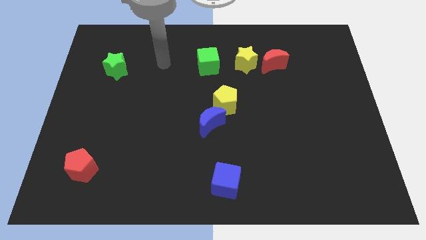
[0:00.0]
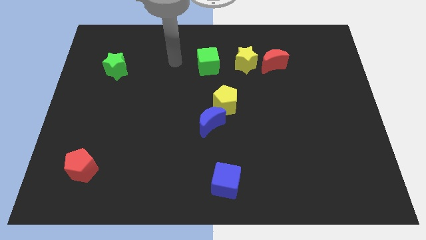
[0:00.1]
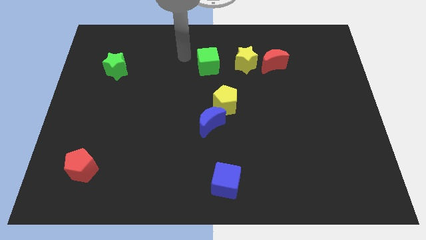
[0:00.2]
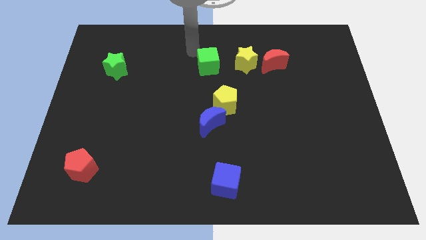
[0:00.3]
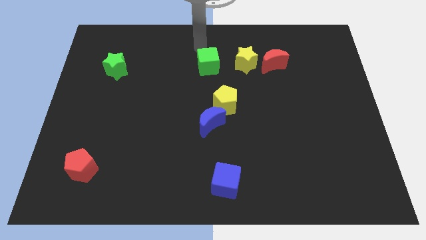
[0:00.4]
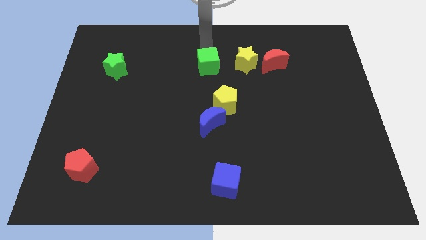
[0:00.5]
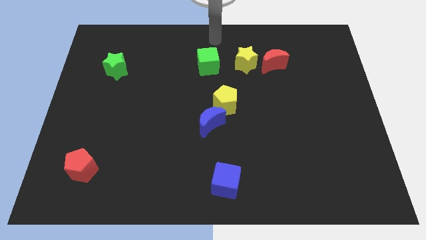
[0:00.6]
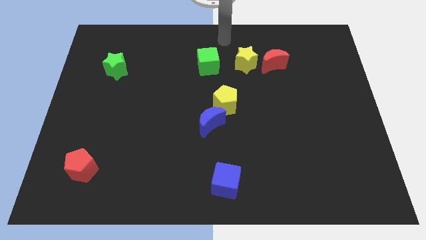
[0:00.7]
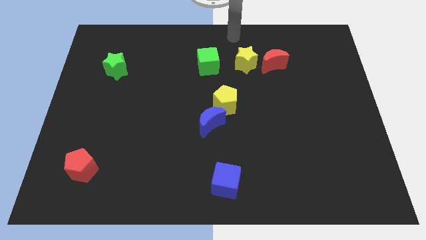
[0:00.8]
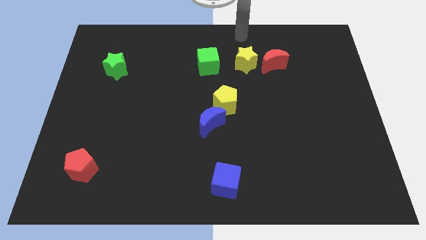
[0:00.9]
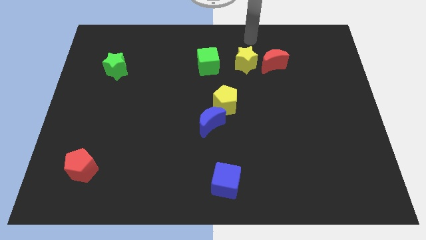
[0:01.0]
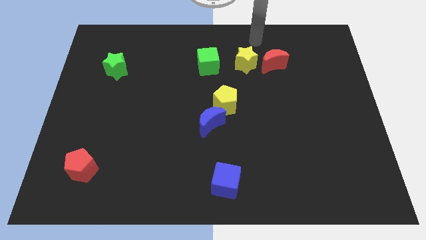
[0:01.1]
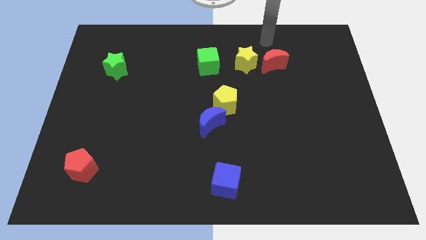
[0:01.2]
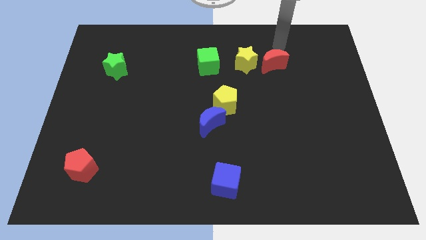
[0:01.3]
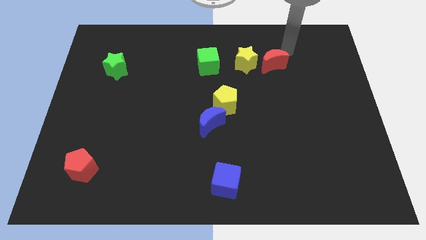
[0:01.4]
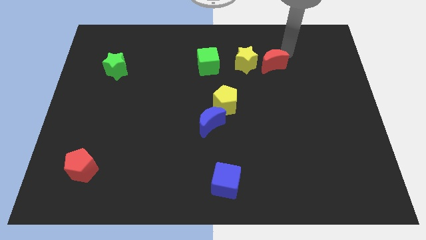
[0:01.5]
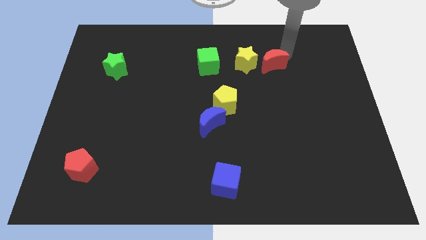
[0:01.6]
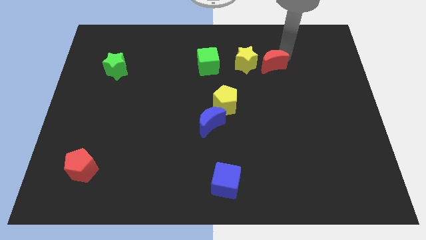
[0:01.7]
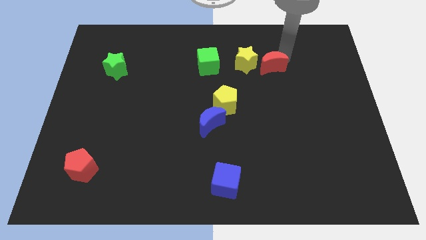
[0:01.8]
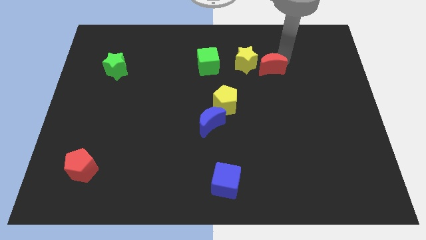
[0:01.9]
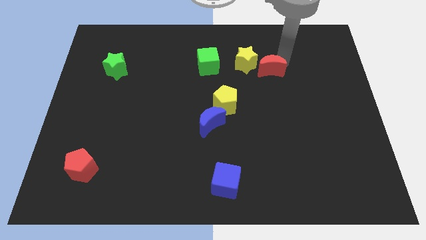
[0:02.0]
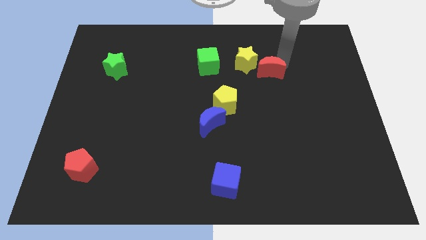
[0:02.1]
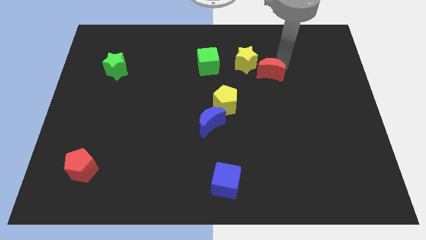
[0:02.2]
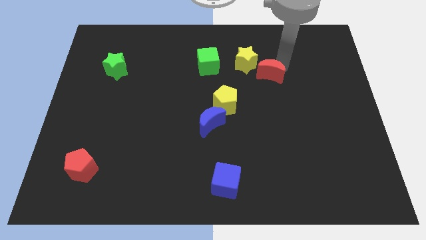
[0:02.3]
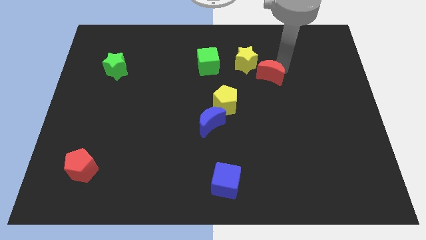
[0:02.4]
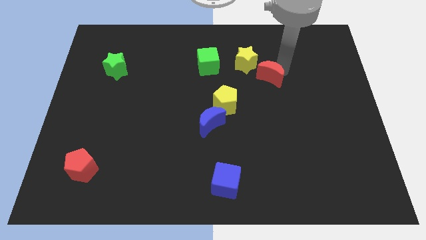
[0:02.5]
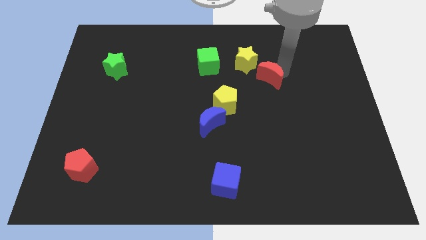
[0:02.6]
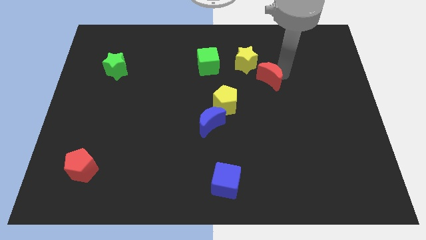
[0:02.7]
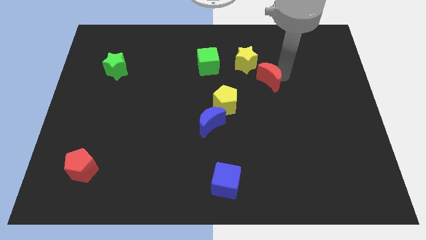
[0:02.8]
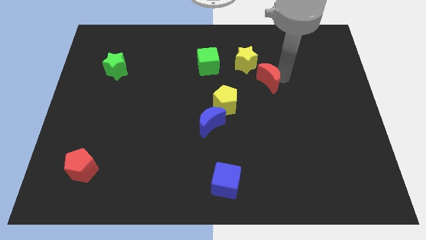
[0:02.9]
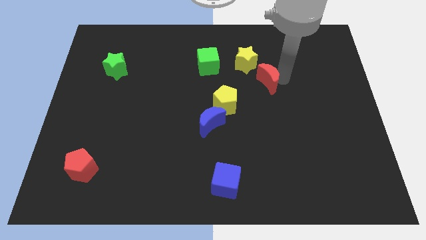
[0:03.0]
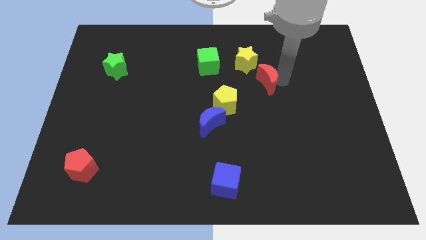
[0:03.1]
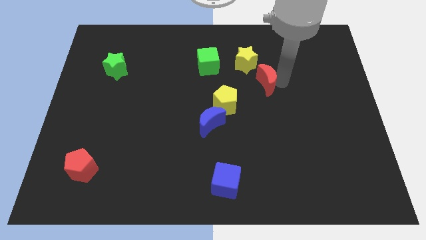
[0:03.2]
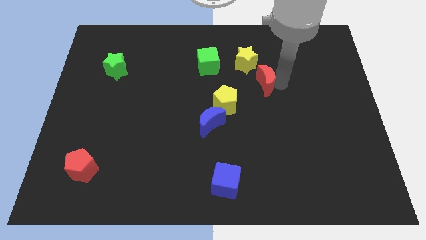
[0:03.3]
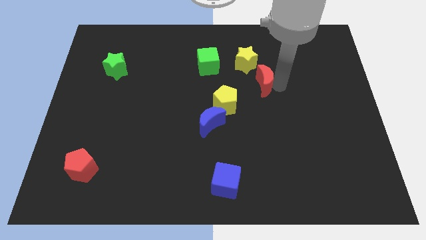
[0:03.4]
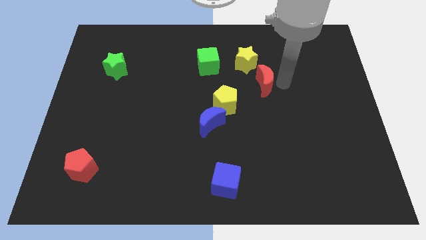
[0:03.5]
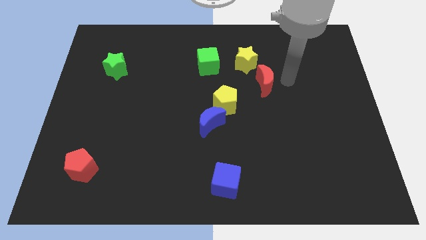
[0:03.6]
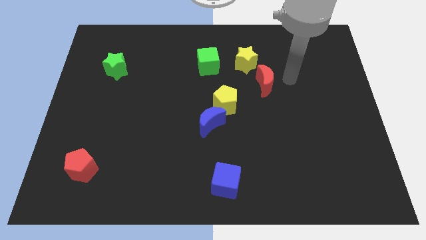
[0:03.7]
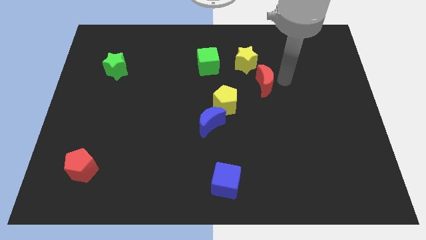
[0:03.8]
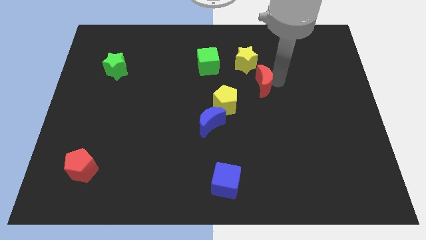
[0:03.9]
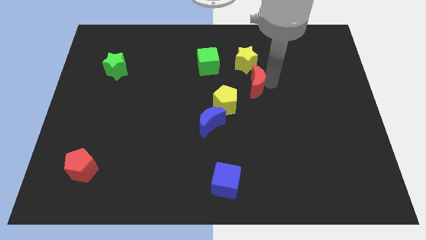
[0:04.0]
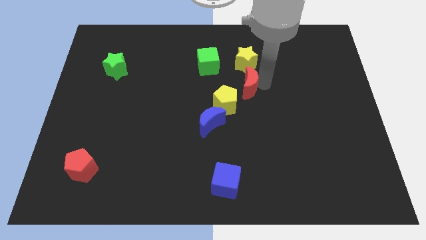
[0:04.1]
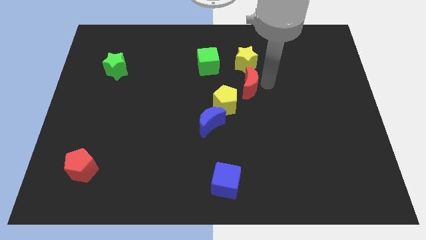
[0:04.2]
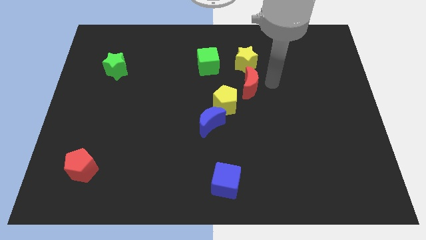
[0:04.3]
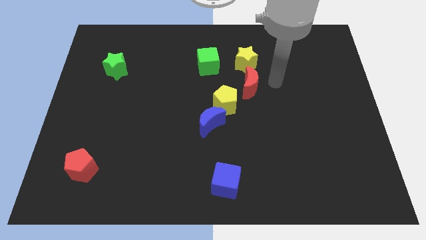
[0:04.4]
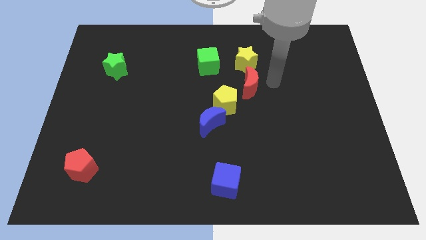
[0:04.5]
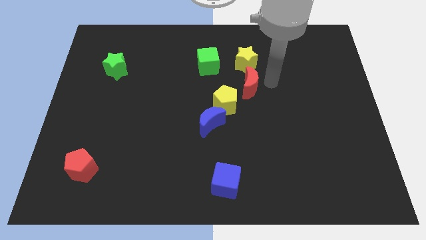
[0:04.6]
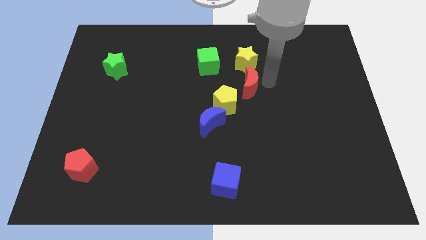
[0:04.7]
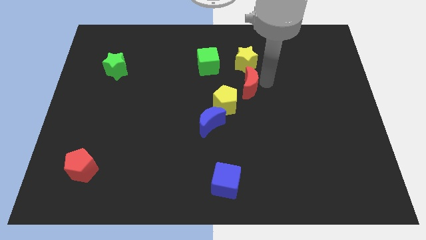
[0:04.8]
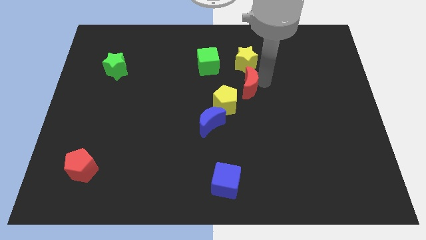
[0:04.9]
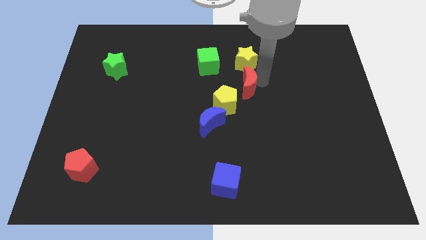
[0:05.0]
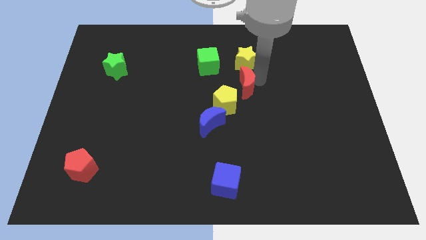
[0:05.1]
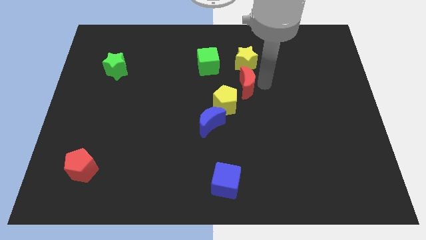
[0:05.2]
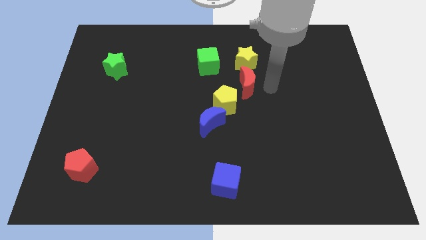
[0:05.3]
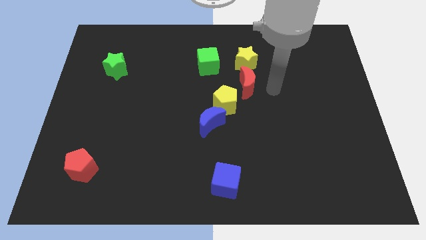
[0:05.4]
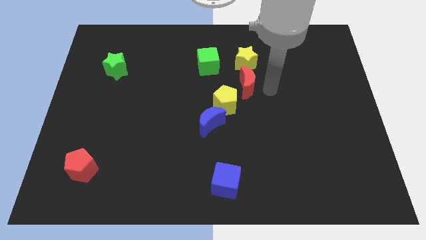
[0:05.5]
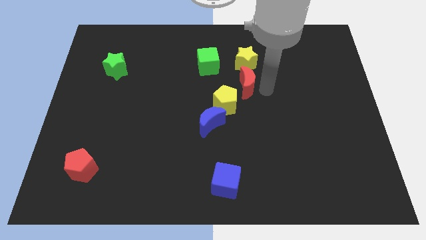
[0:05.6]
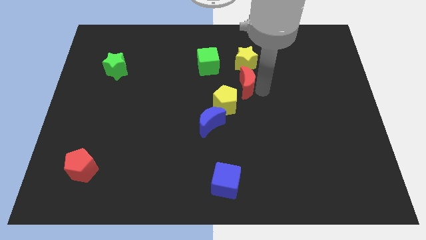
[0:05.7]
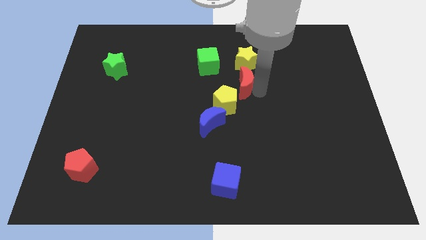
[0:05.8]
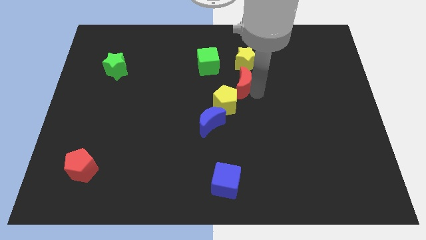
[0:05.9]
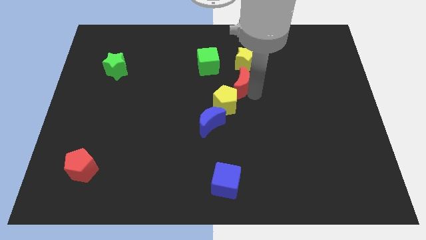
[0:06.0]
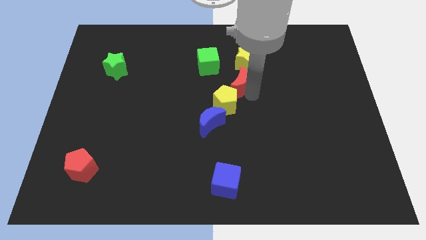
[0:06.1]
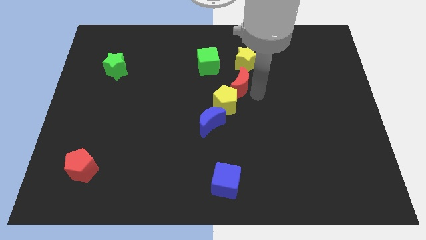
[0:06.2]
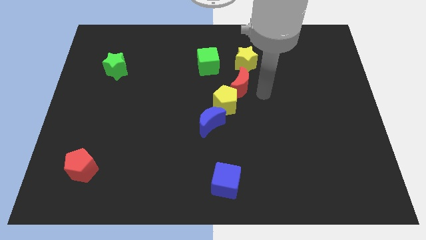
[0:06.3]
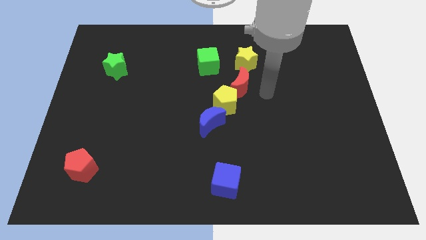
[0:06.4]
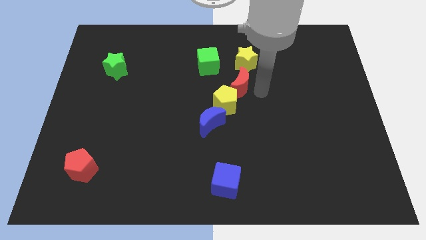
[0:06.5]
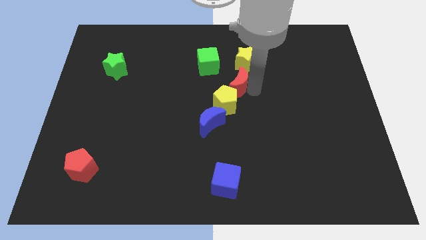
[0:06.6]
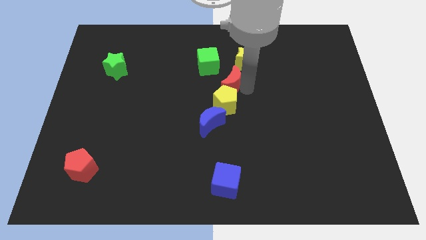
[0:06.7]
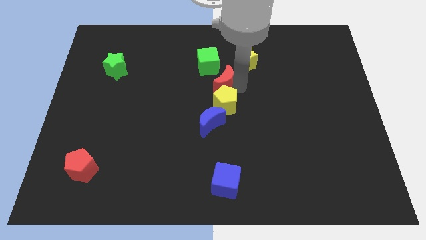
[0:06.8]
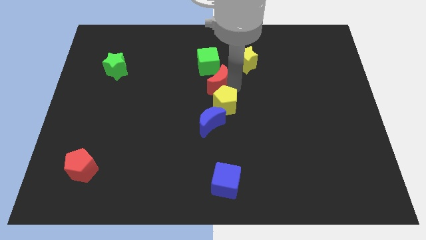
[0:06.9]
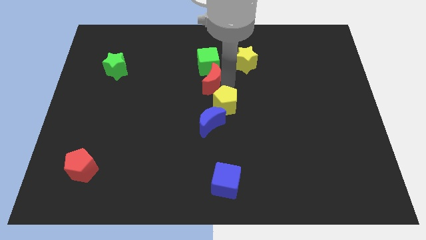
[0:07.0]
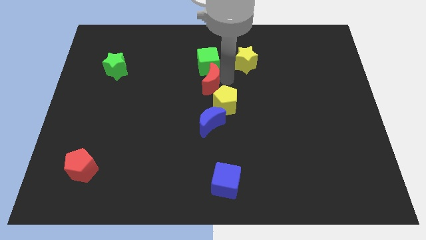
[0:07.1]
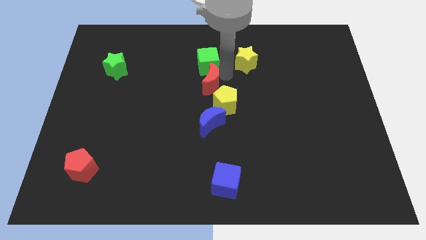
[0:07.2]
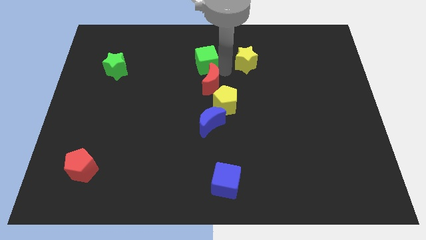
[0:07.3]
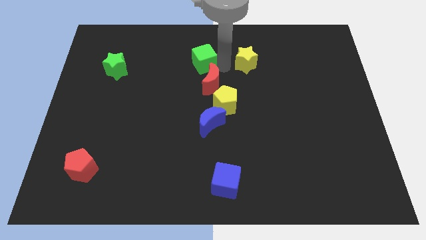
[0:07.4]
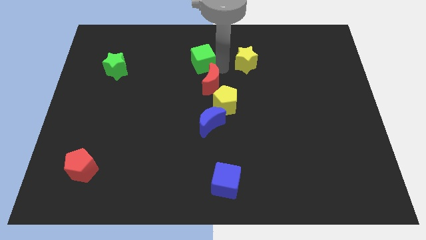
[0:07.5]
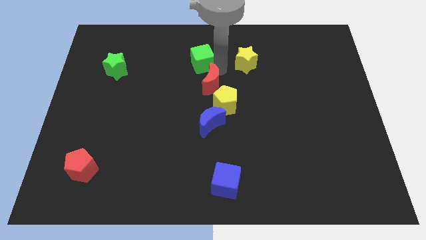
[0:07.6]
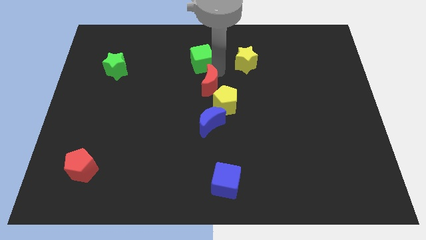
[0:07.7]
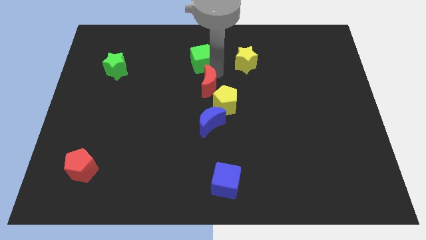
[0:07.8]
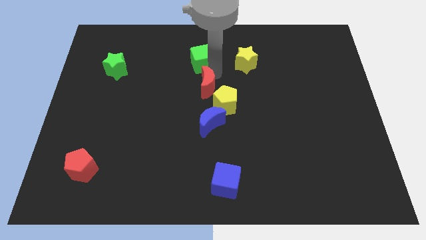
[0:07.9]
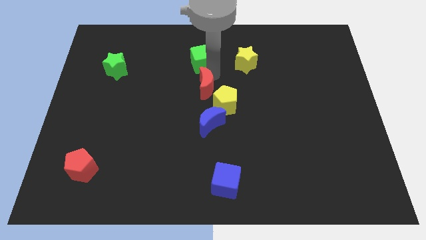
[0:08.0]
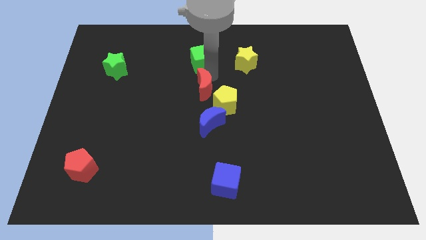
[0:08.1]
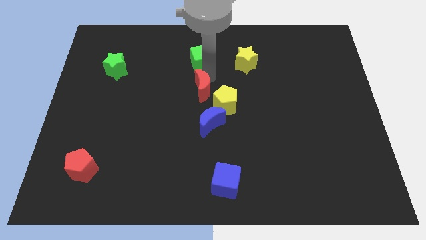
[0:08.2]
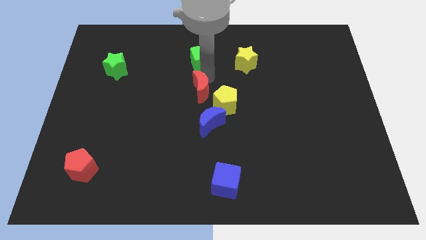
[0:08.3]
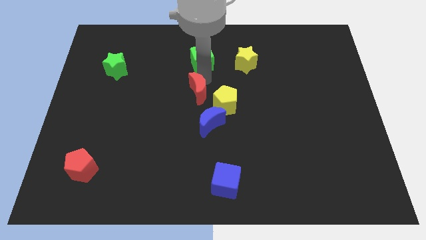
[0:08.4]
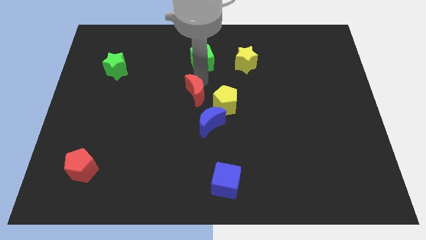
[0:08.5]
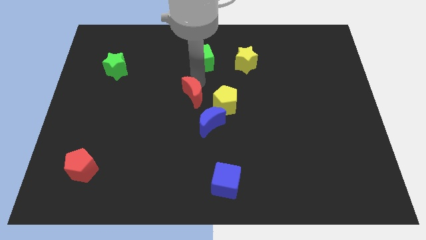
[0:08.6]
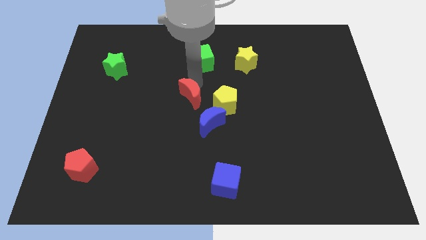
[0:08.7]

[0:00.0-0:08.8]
slide the red moon diagonally downwards and left
